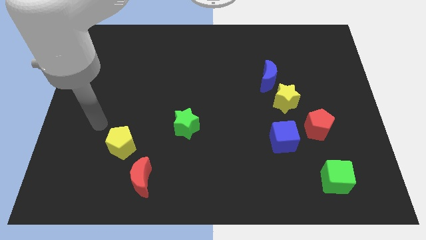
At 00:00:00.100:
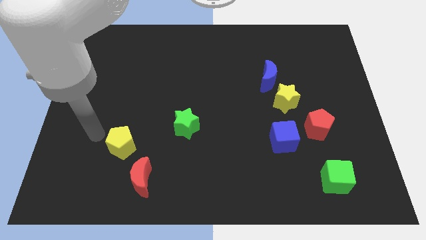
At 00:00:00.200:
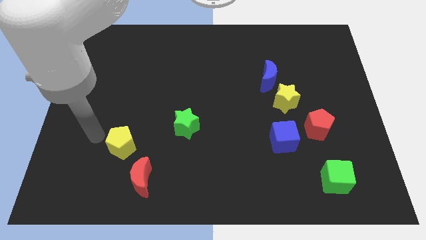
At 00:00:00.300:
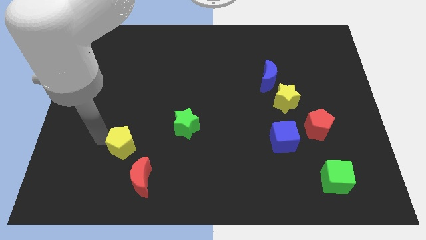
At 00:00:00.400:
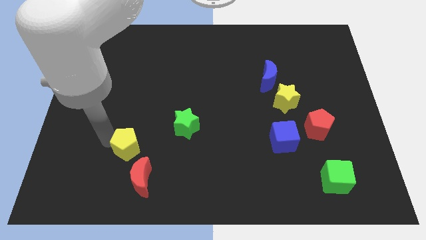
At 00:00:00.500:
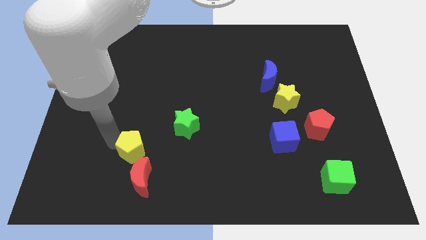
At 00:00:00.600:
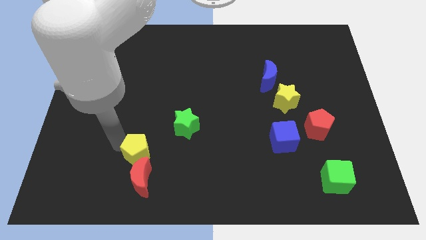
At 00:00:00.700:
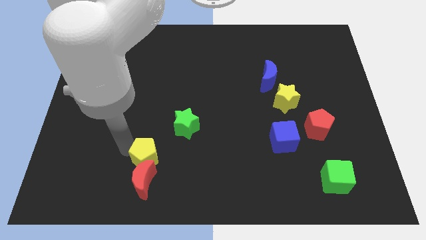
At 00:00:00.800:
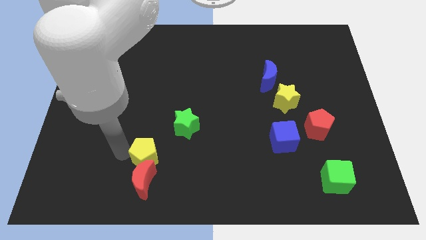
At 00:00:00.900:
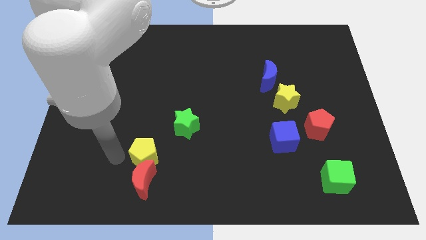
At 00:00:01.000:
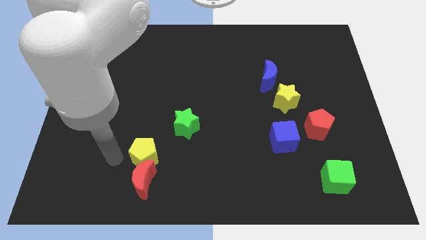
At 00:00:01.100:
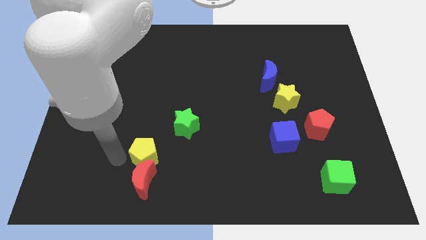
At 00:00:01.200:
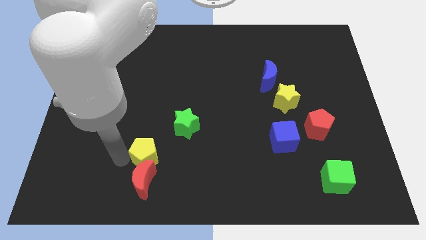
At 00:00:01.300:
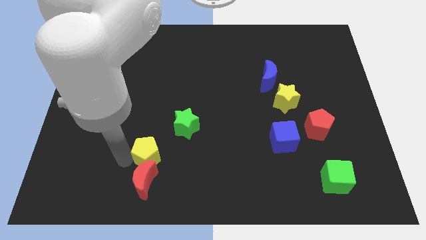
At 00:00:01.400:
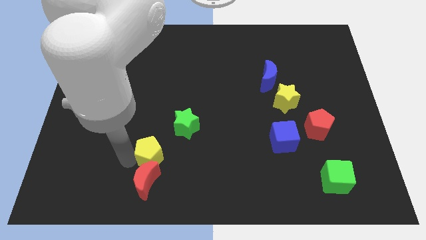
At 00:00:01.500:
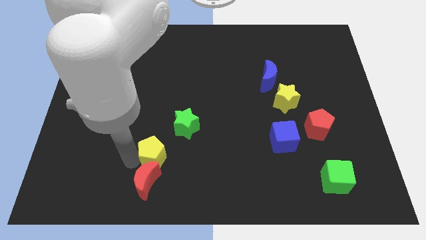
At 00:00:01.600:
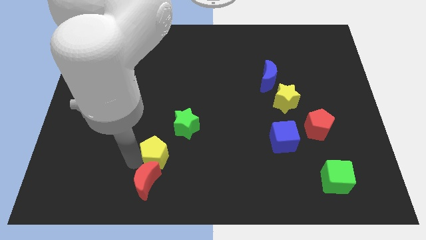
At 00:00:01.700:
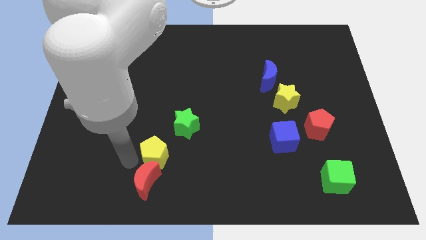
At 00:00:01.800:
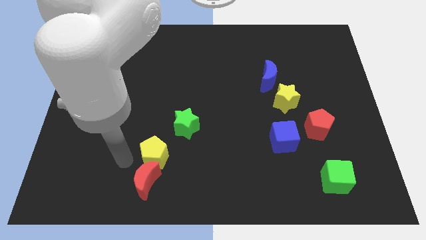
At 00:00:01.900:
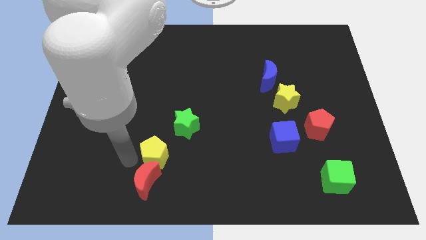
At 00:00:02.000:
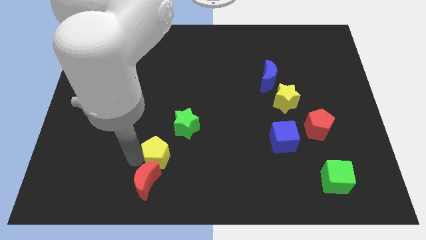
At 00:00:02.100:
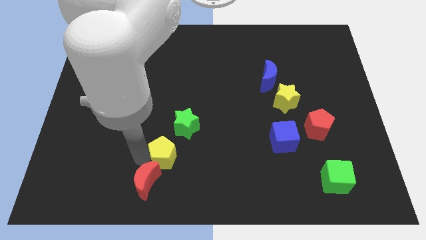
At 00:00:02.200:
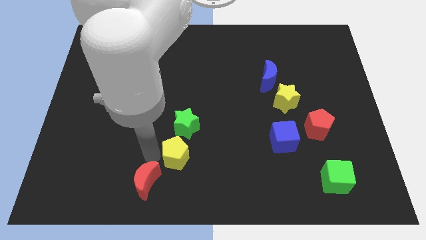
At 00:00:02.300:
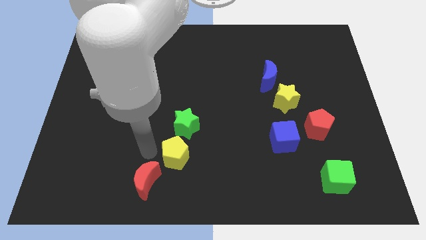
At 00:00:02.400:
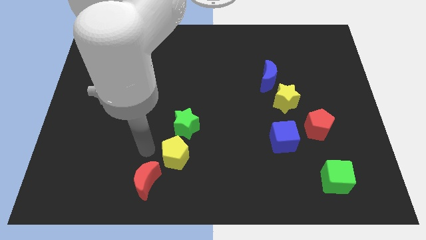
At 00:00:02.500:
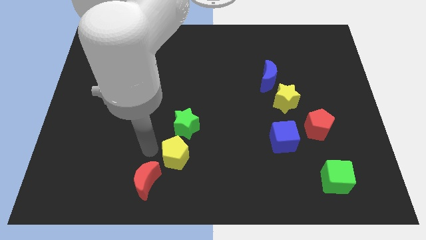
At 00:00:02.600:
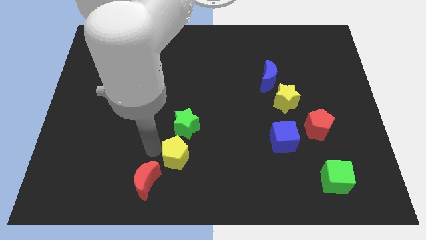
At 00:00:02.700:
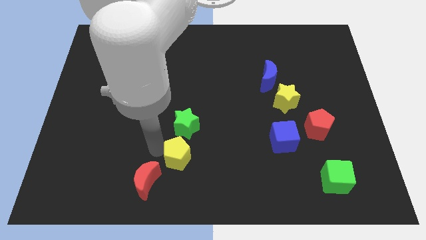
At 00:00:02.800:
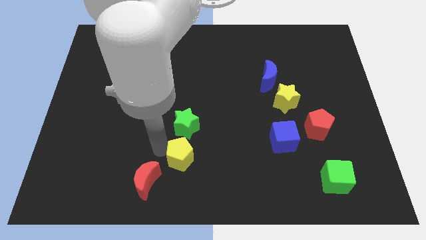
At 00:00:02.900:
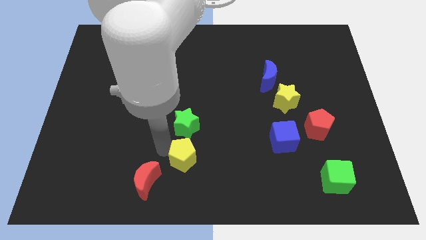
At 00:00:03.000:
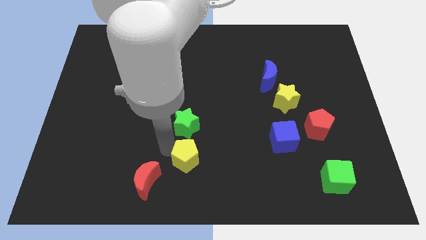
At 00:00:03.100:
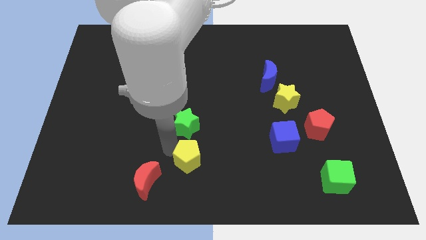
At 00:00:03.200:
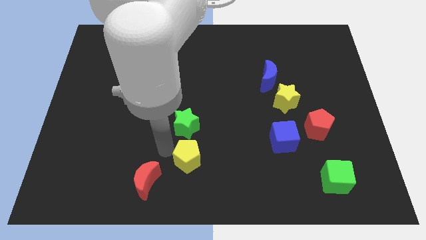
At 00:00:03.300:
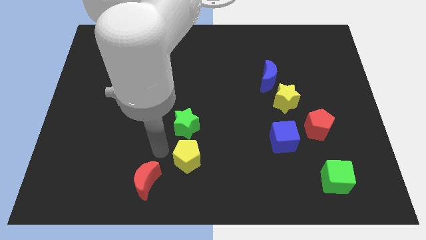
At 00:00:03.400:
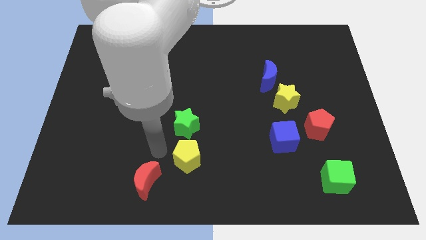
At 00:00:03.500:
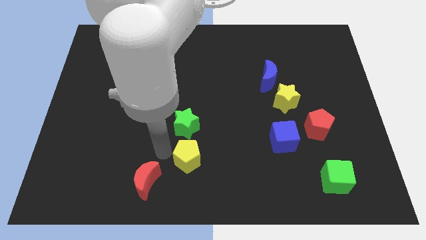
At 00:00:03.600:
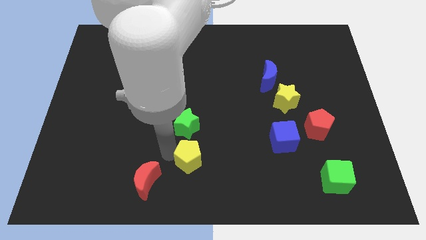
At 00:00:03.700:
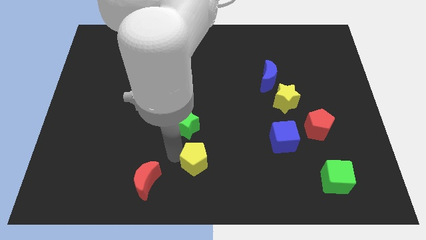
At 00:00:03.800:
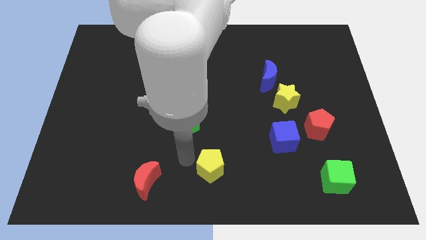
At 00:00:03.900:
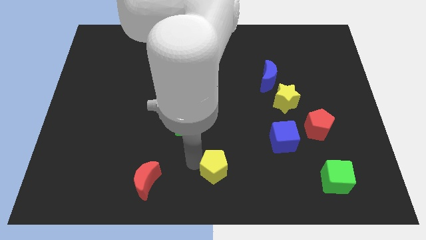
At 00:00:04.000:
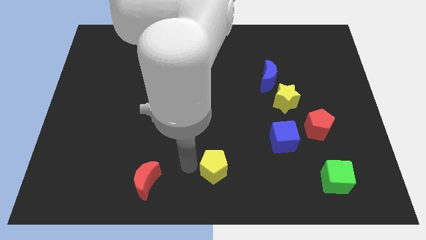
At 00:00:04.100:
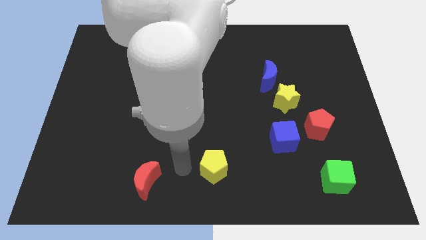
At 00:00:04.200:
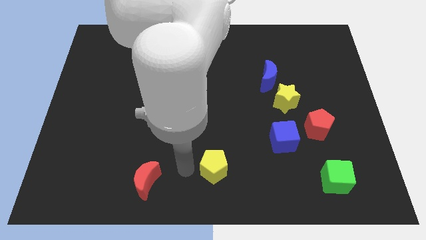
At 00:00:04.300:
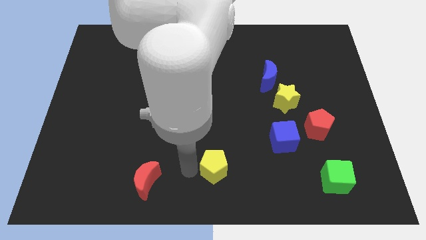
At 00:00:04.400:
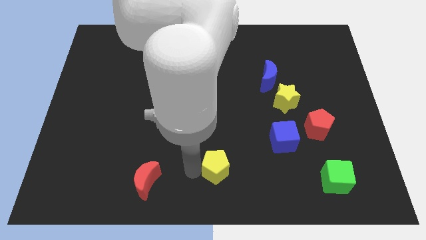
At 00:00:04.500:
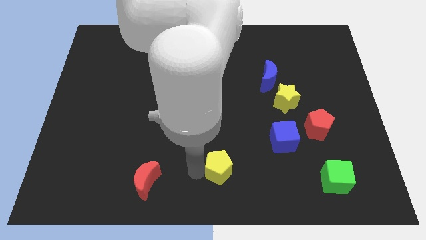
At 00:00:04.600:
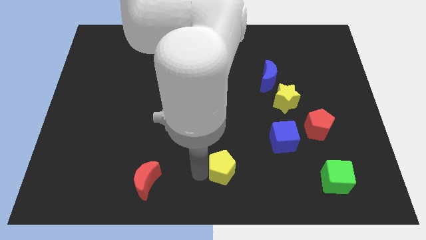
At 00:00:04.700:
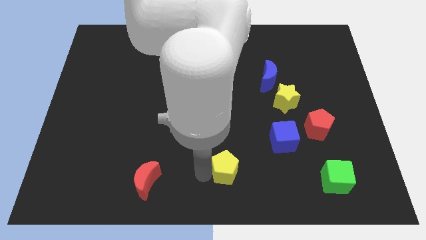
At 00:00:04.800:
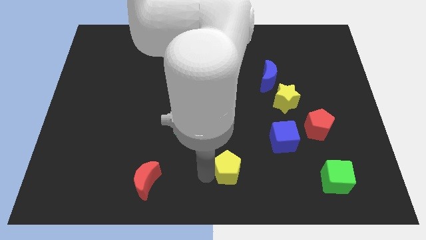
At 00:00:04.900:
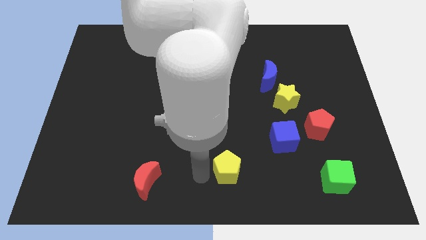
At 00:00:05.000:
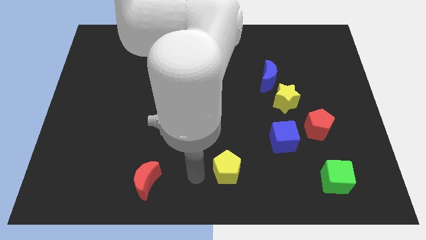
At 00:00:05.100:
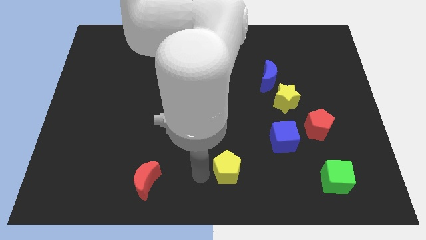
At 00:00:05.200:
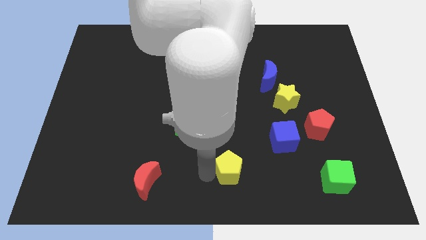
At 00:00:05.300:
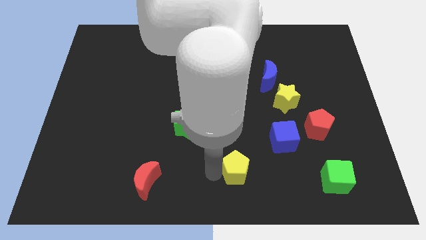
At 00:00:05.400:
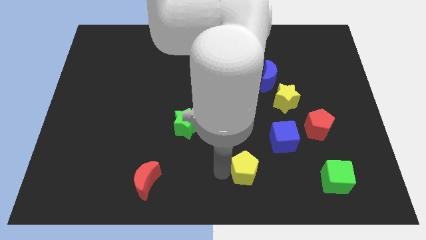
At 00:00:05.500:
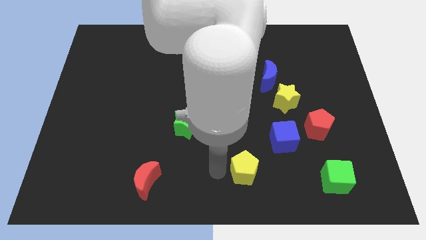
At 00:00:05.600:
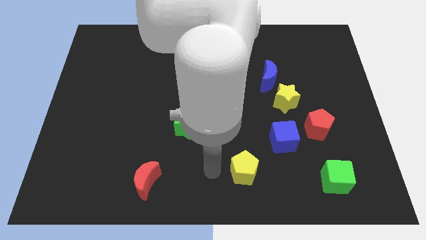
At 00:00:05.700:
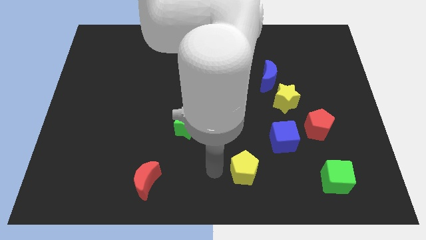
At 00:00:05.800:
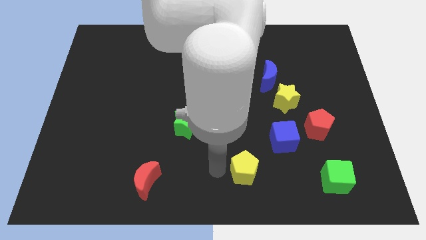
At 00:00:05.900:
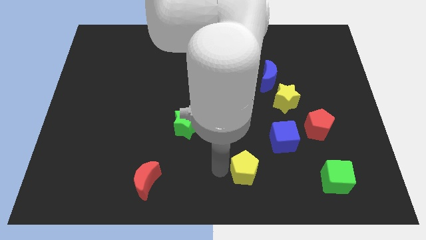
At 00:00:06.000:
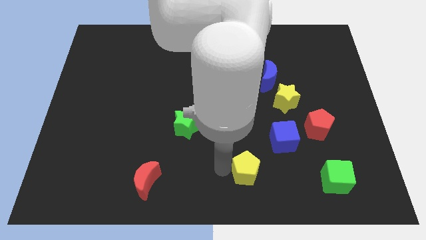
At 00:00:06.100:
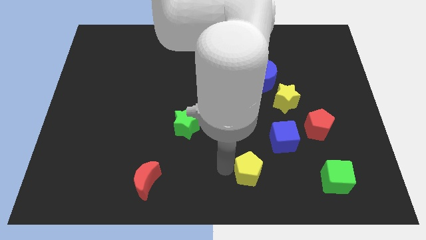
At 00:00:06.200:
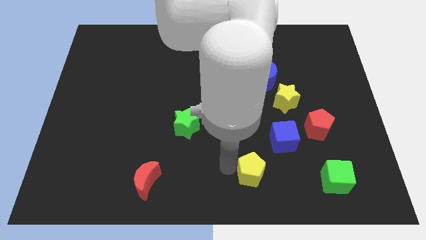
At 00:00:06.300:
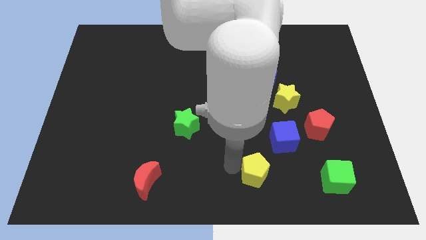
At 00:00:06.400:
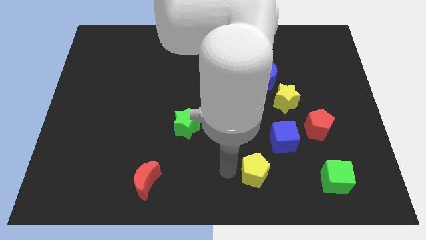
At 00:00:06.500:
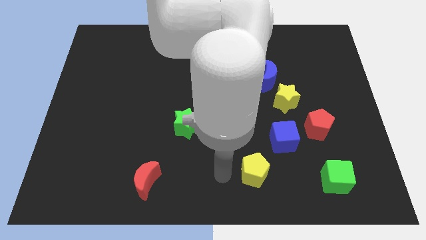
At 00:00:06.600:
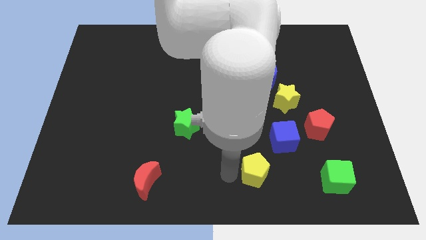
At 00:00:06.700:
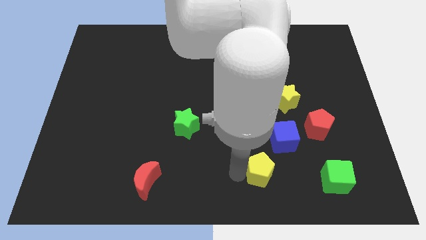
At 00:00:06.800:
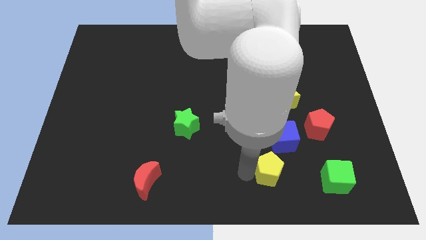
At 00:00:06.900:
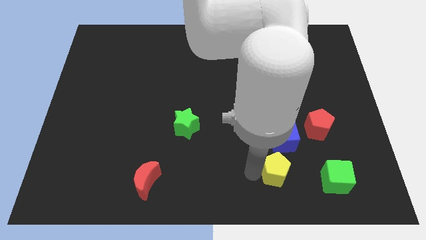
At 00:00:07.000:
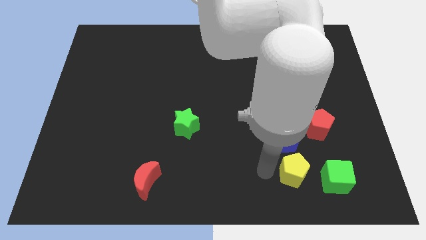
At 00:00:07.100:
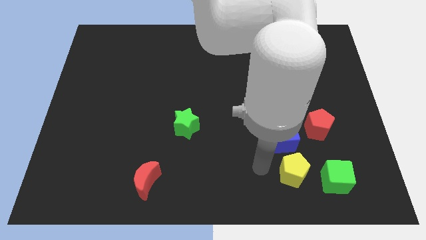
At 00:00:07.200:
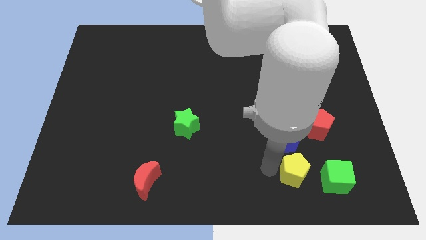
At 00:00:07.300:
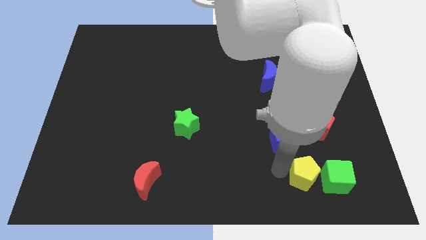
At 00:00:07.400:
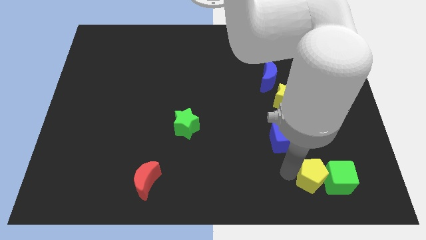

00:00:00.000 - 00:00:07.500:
put the yellow pentagon close to the green cube
